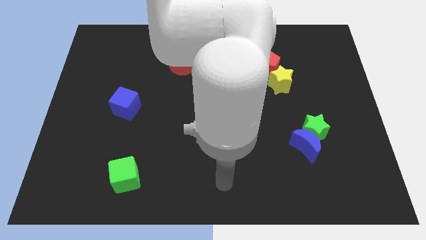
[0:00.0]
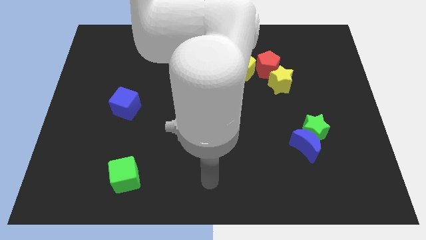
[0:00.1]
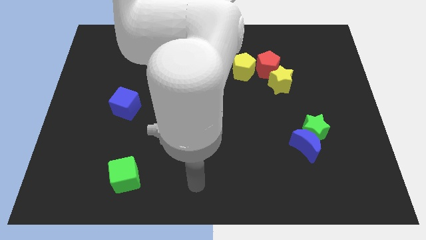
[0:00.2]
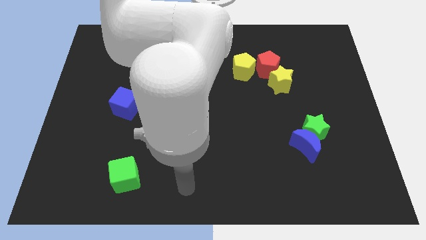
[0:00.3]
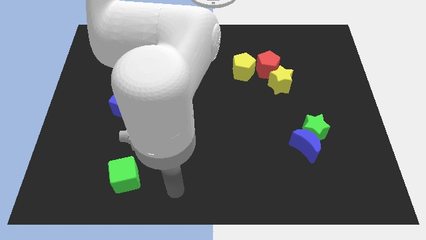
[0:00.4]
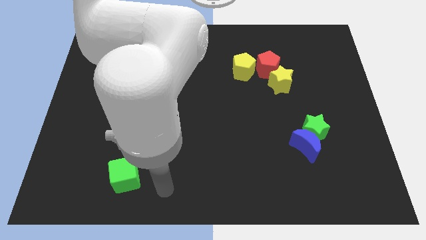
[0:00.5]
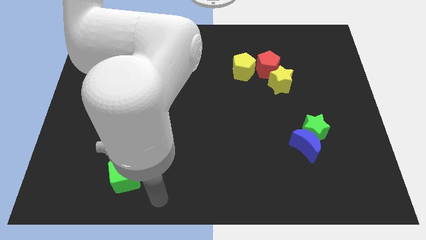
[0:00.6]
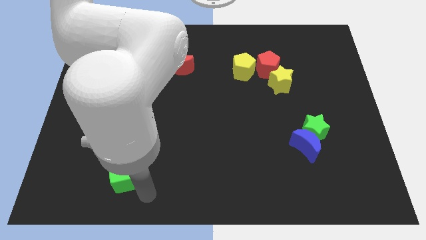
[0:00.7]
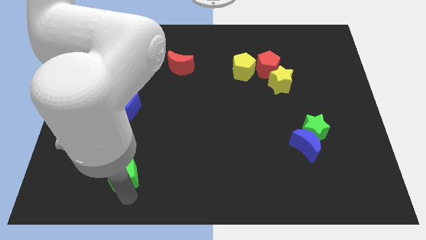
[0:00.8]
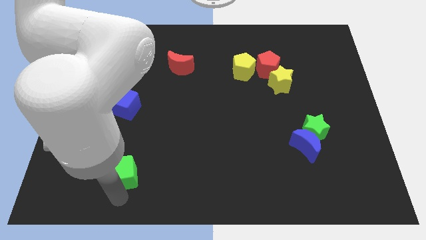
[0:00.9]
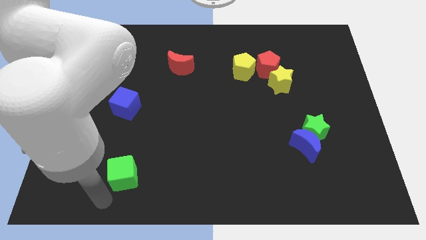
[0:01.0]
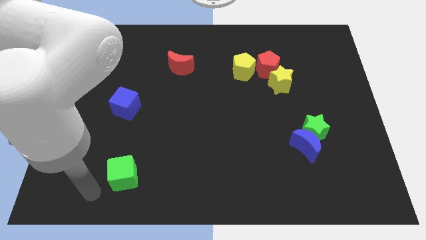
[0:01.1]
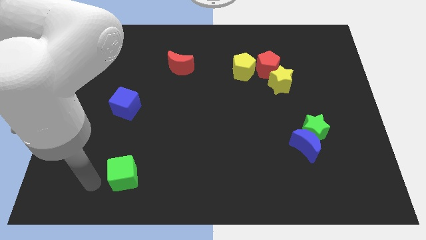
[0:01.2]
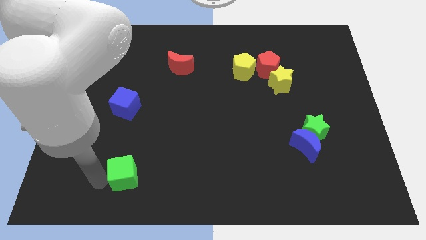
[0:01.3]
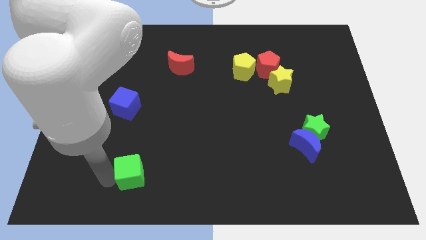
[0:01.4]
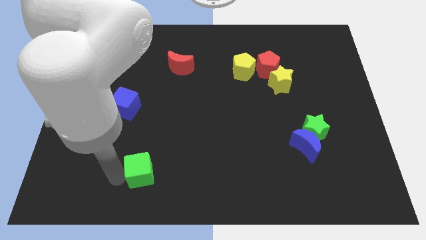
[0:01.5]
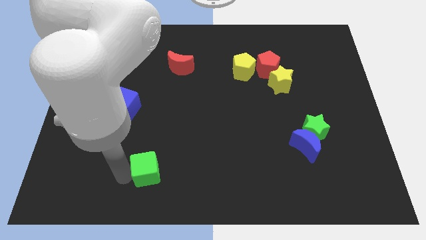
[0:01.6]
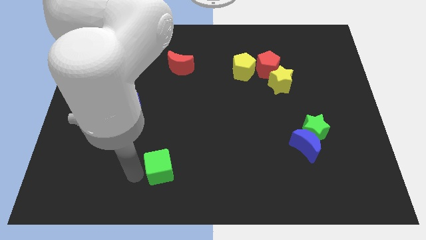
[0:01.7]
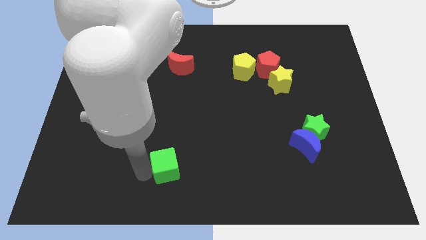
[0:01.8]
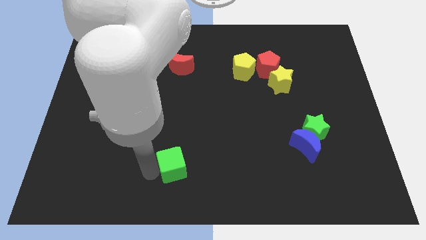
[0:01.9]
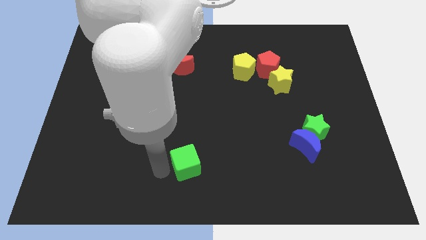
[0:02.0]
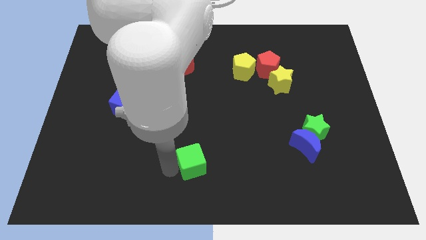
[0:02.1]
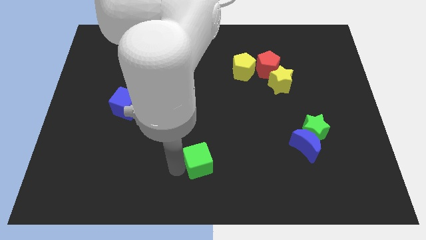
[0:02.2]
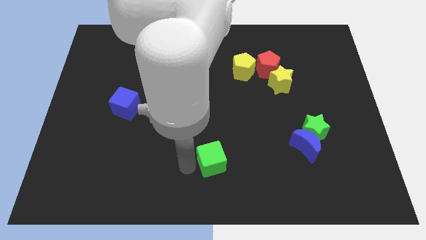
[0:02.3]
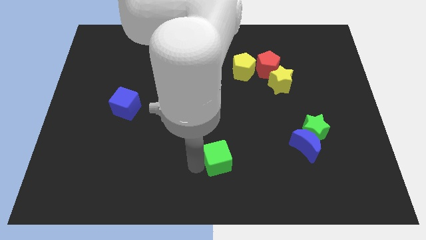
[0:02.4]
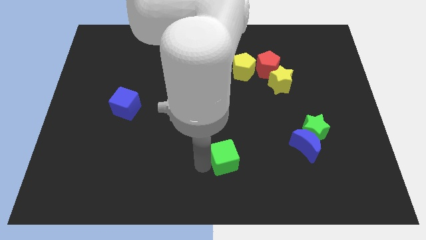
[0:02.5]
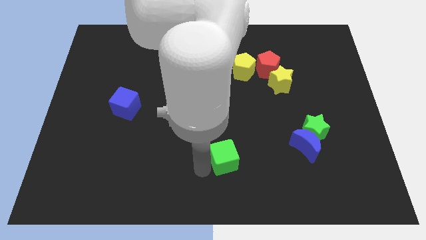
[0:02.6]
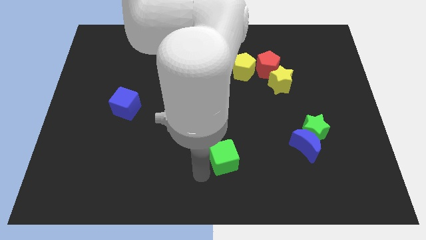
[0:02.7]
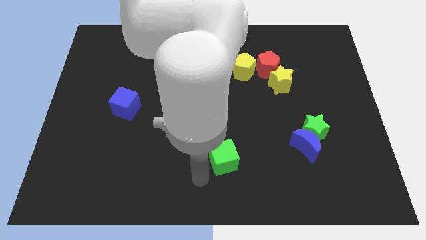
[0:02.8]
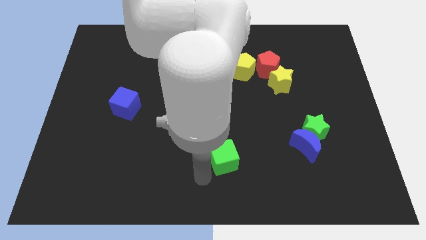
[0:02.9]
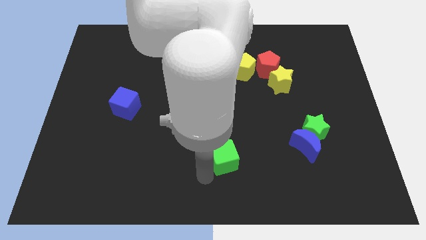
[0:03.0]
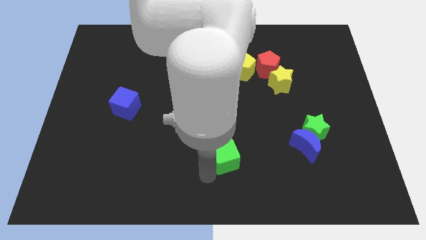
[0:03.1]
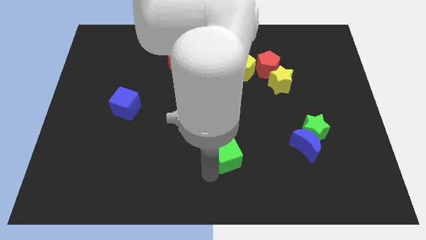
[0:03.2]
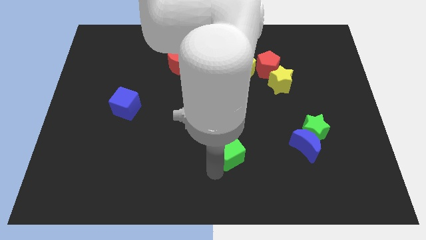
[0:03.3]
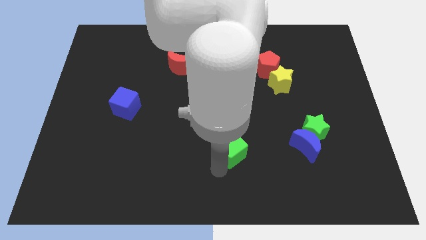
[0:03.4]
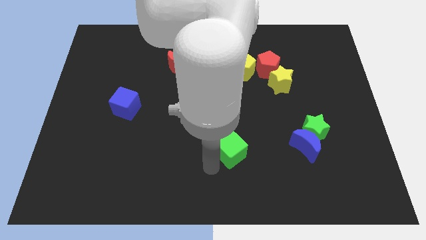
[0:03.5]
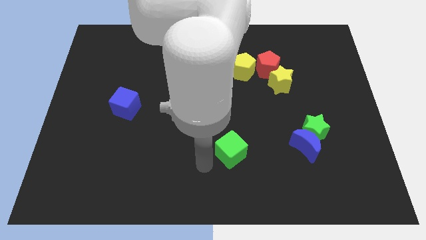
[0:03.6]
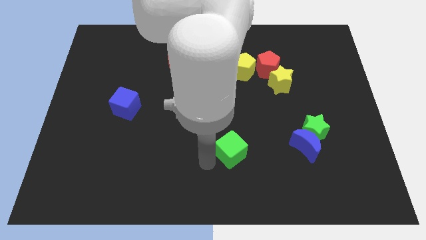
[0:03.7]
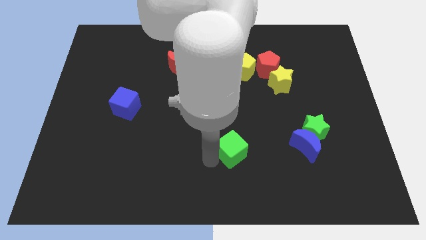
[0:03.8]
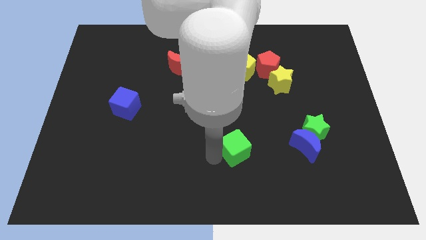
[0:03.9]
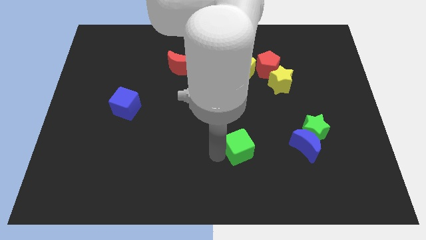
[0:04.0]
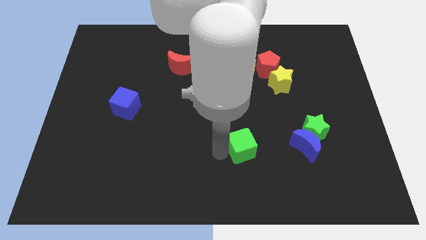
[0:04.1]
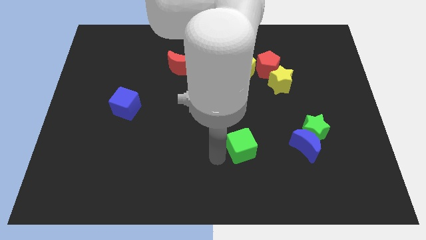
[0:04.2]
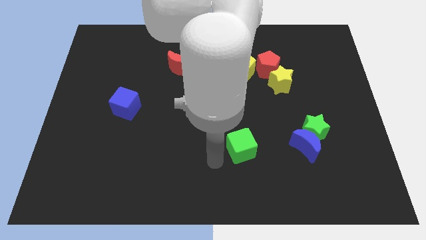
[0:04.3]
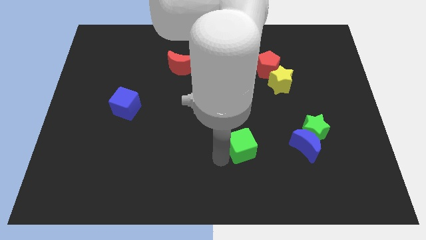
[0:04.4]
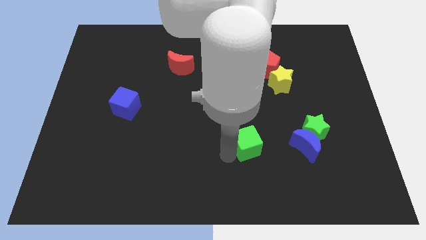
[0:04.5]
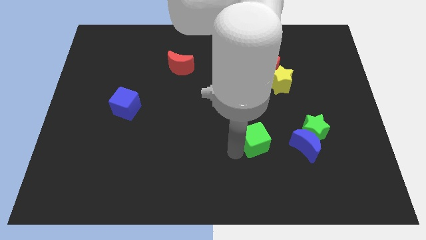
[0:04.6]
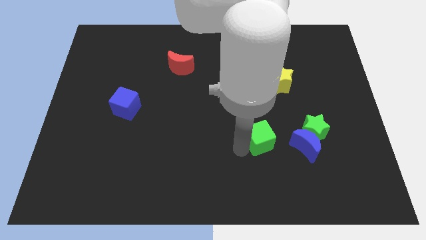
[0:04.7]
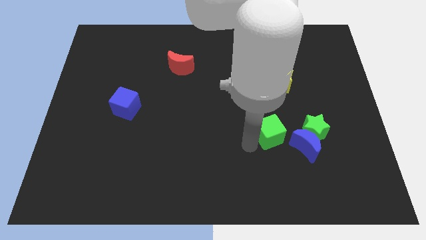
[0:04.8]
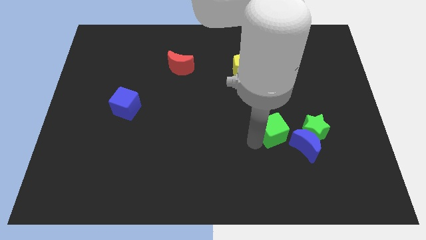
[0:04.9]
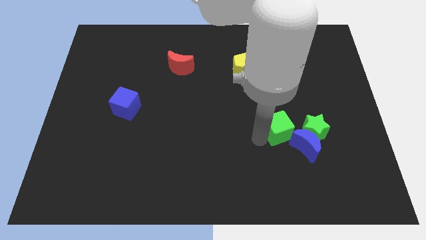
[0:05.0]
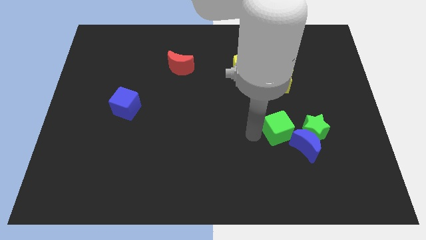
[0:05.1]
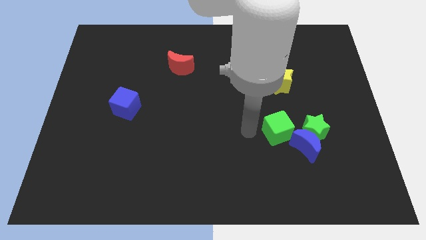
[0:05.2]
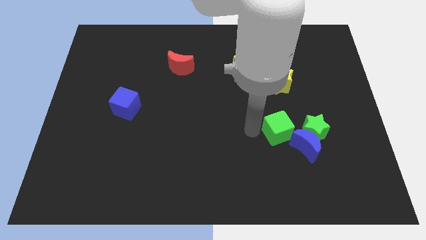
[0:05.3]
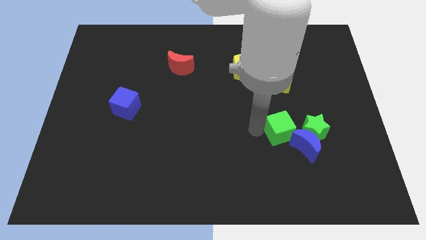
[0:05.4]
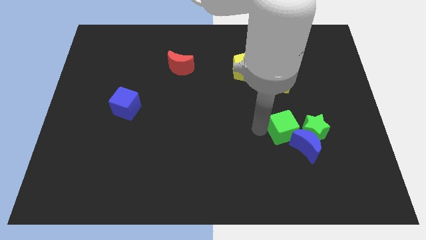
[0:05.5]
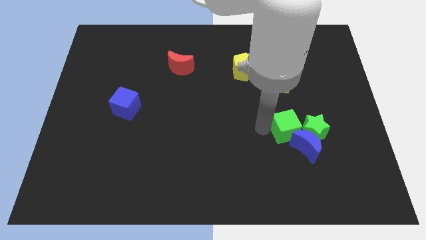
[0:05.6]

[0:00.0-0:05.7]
push the green cube to the green star
